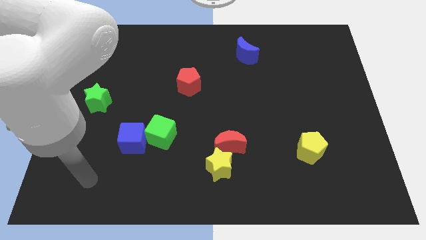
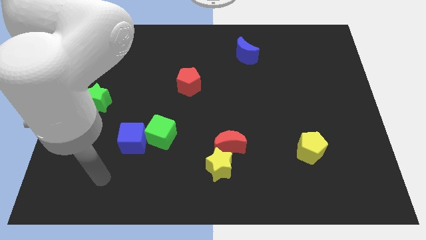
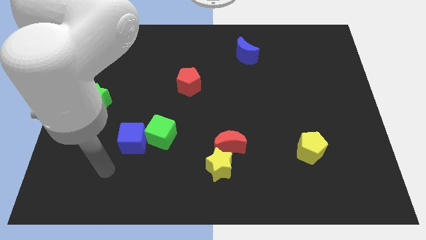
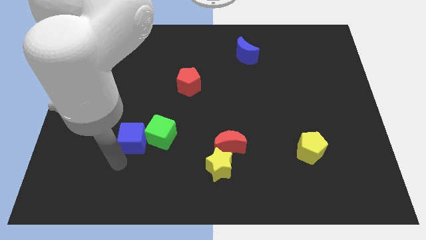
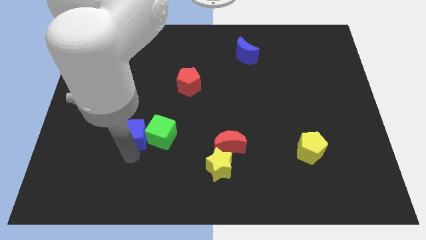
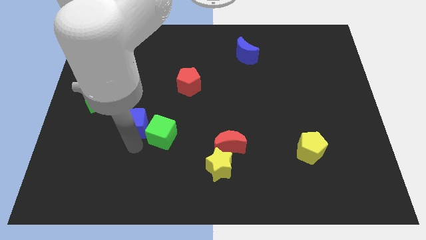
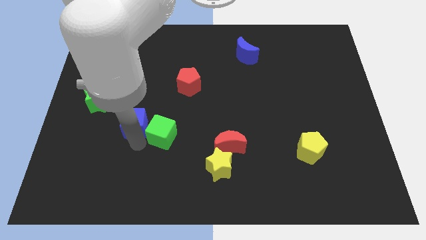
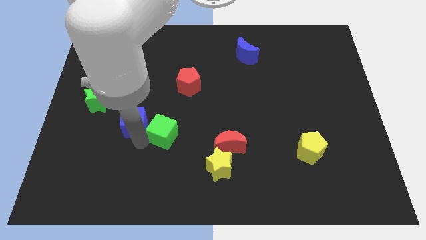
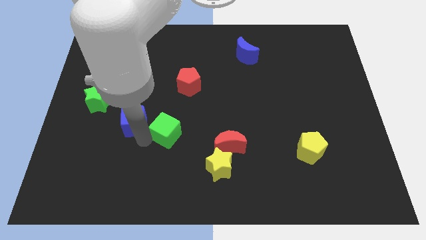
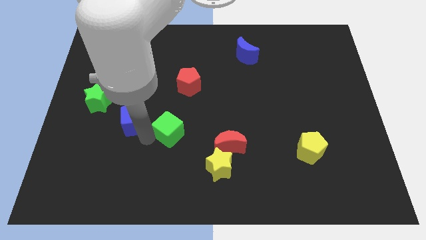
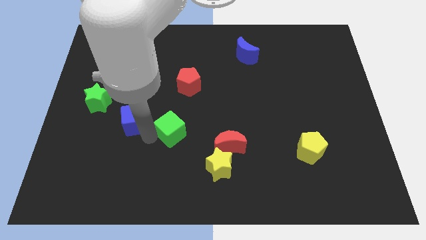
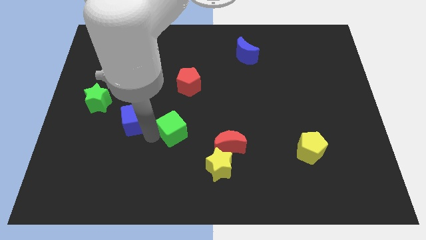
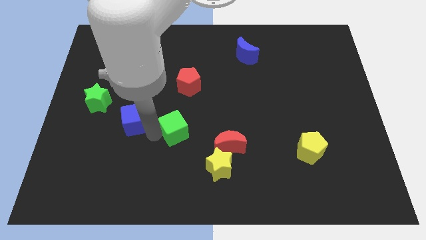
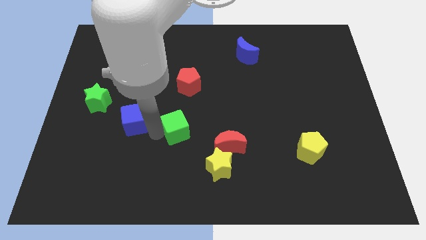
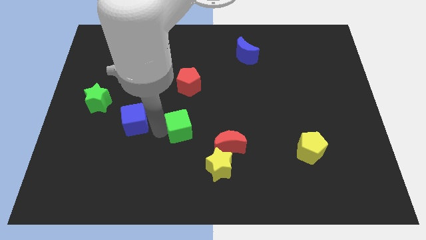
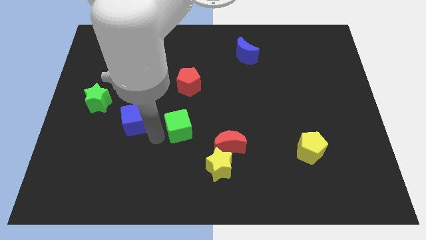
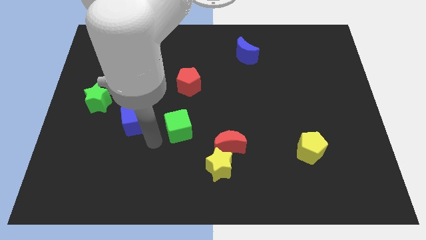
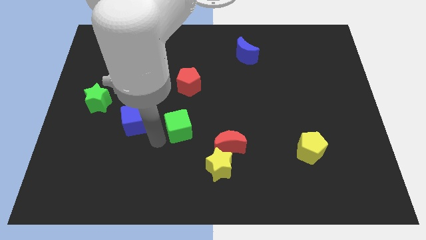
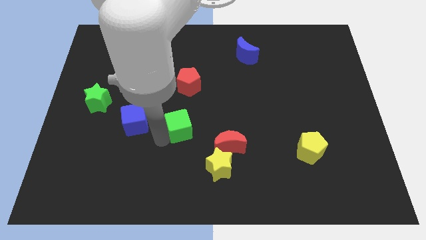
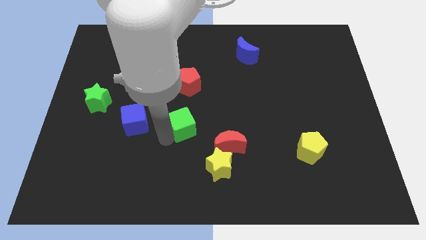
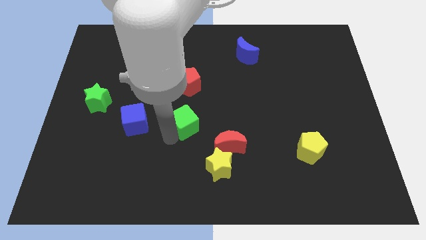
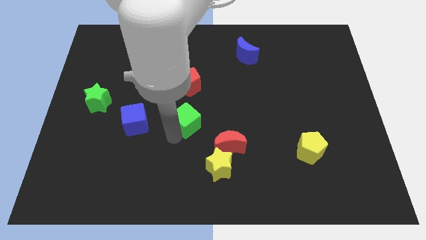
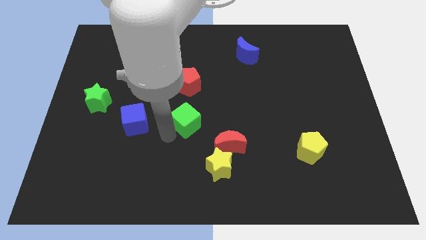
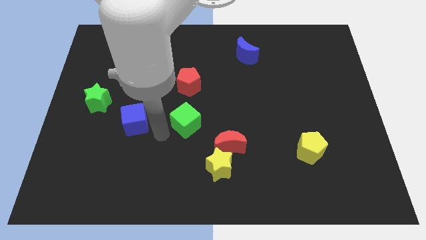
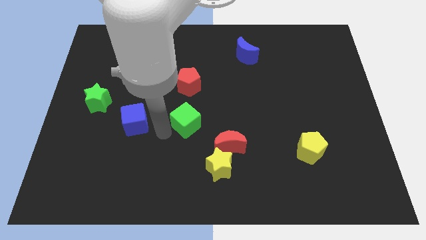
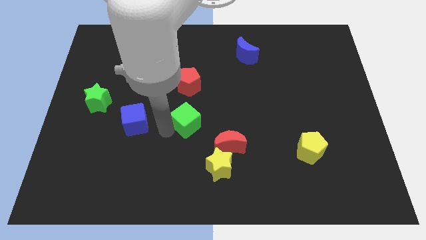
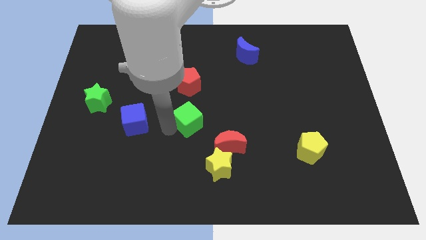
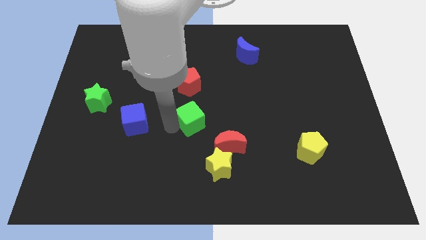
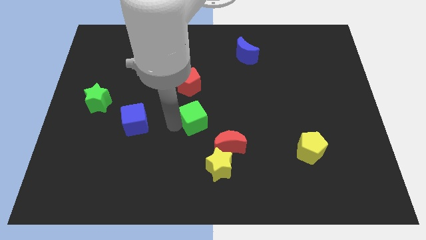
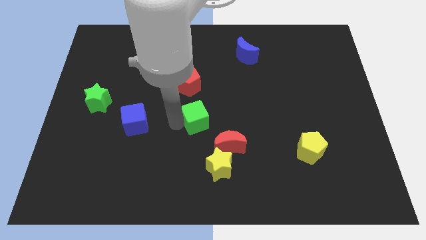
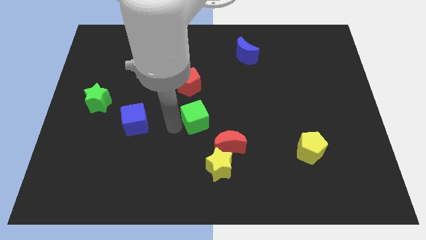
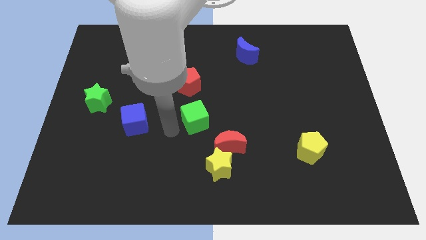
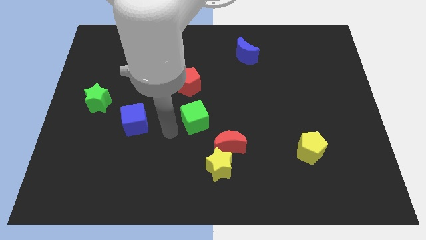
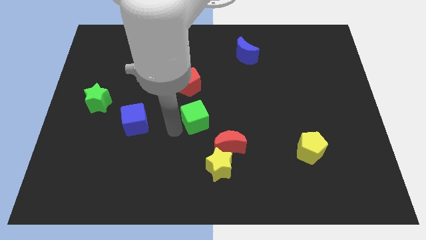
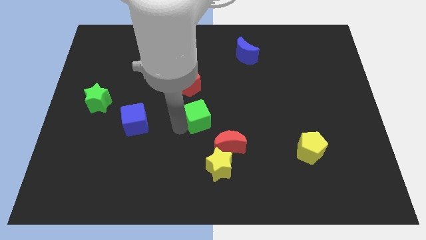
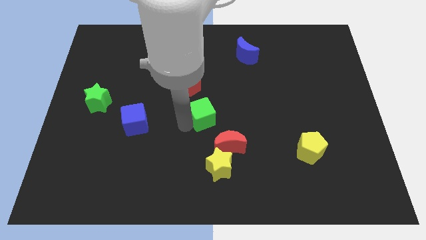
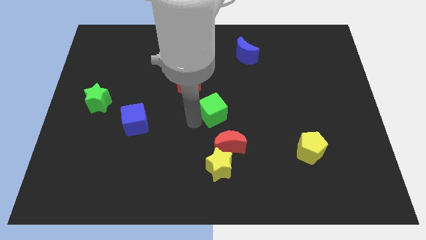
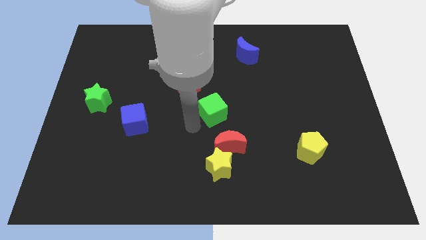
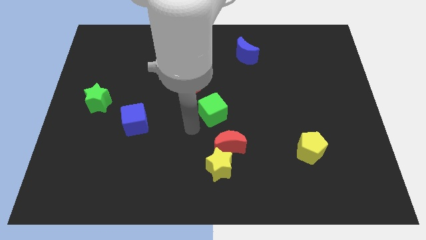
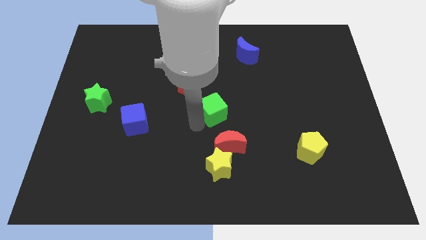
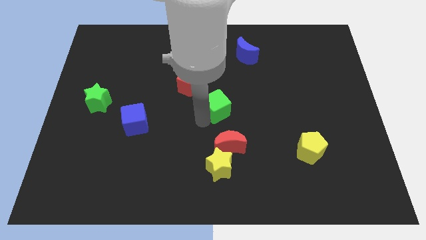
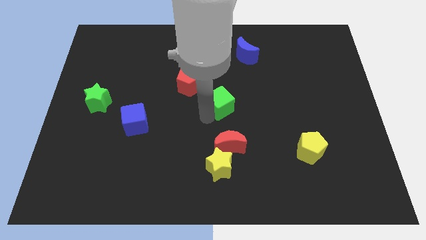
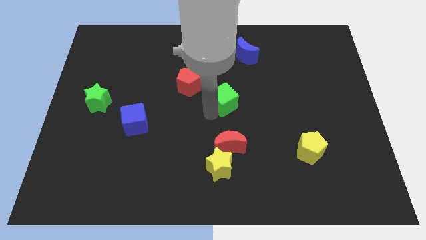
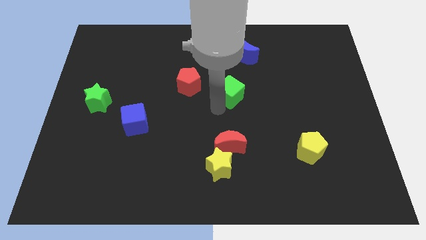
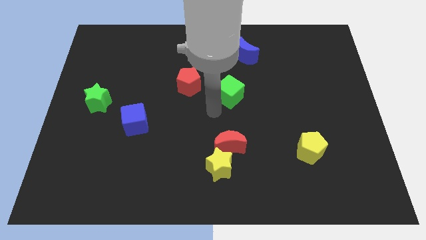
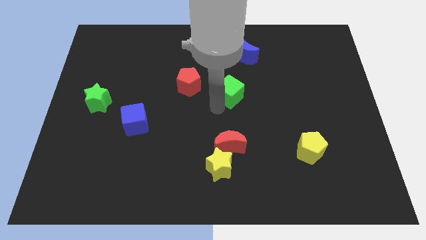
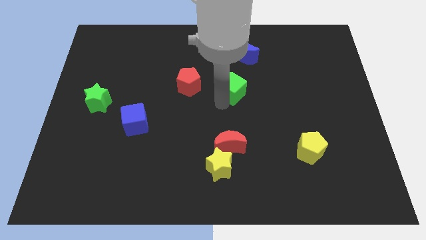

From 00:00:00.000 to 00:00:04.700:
move the green cube up and to the right

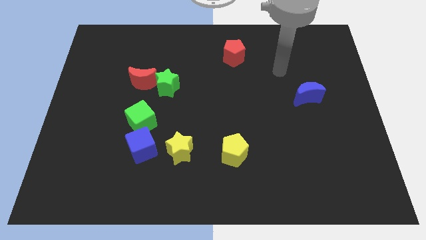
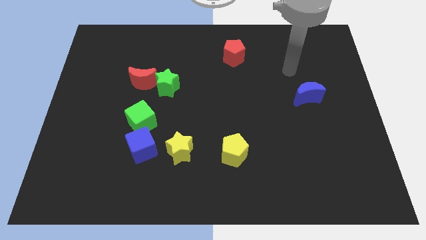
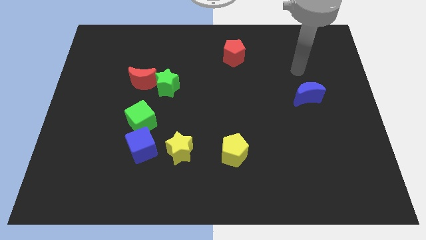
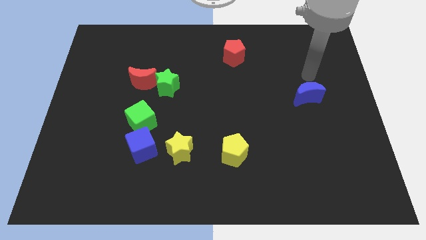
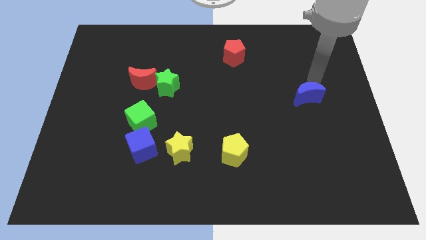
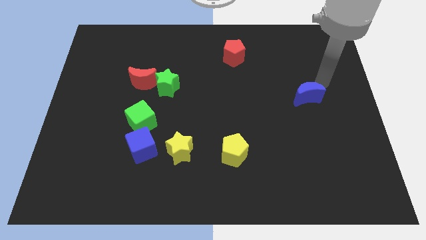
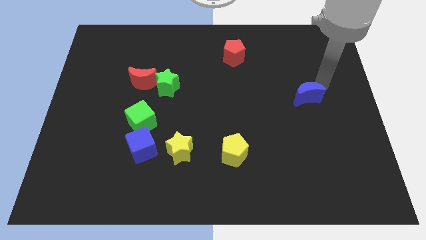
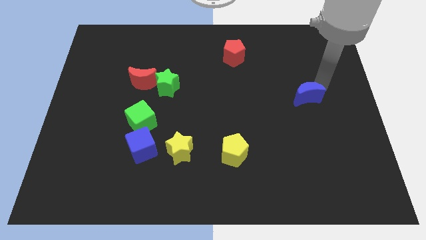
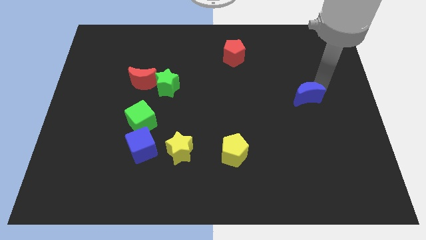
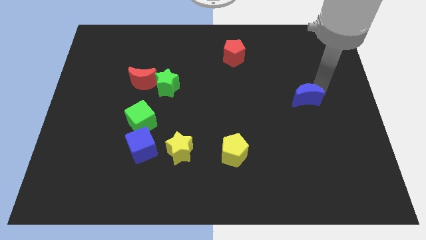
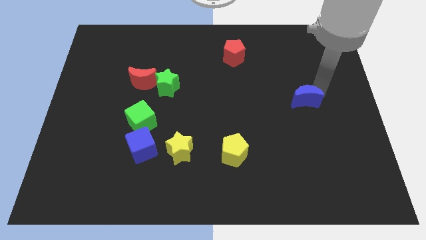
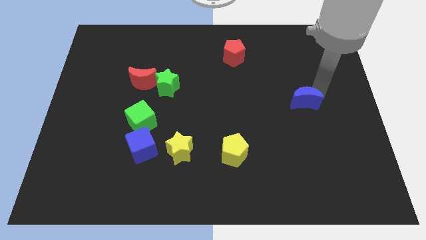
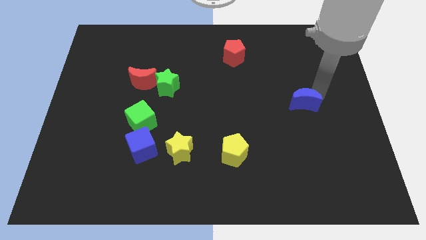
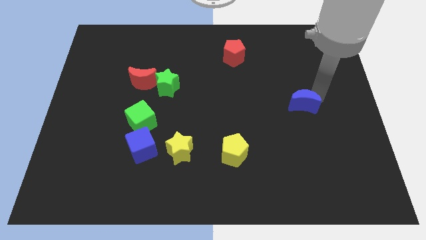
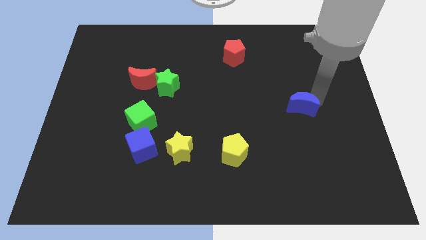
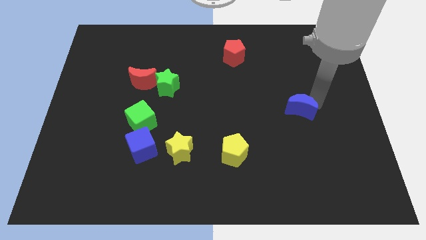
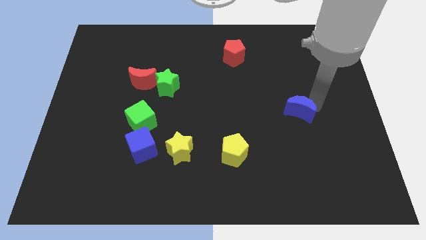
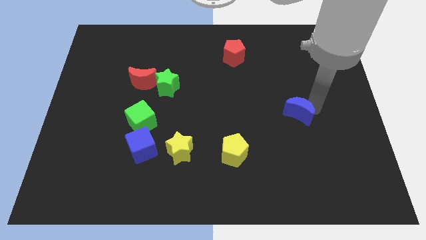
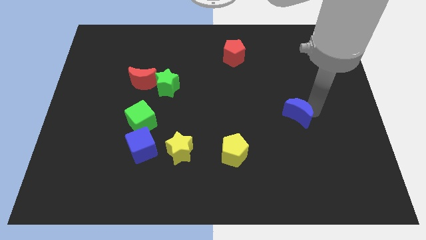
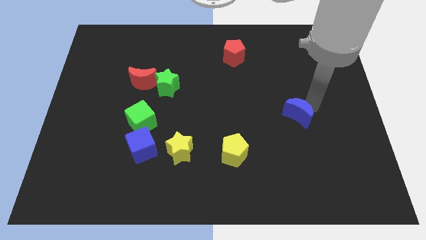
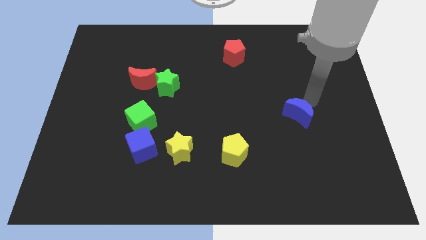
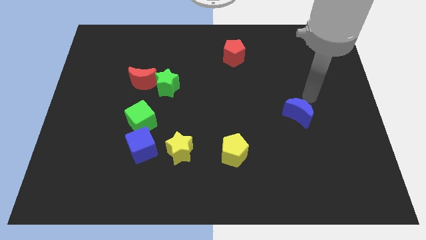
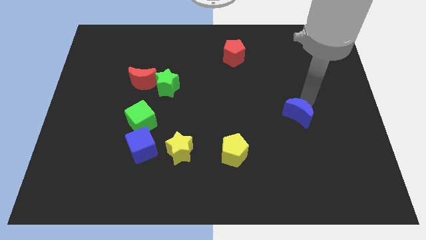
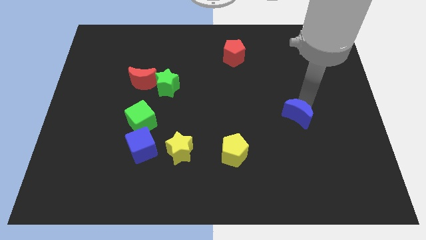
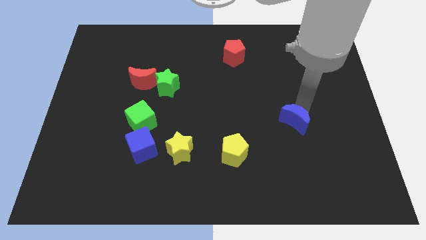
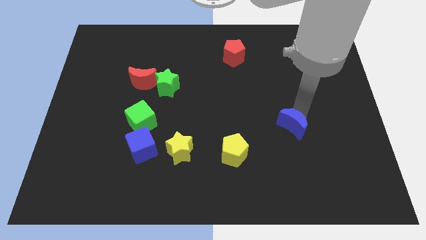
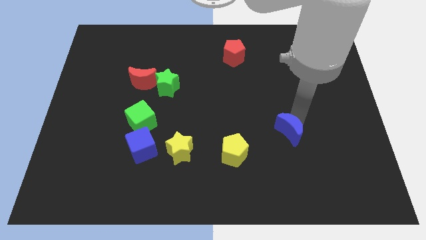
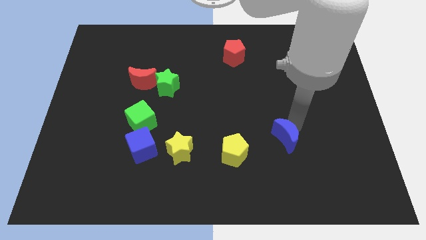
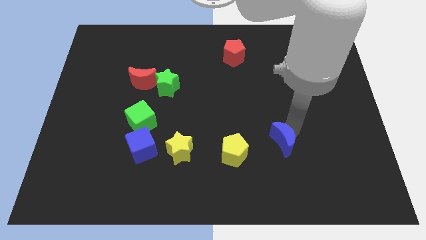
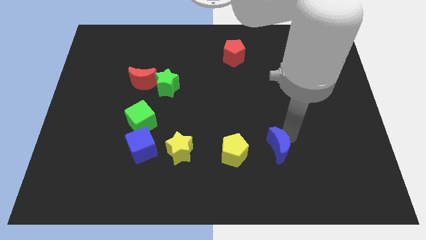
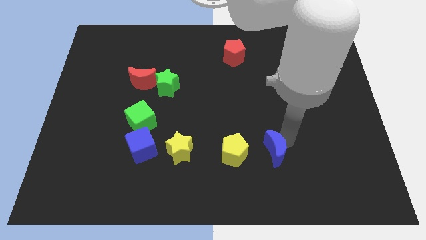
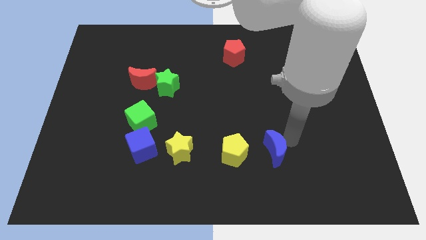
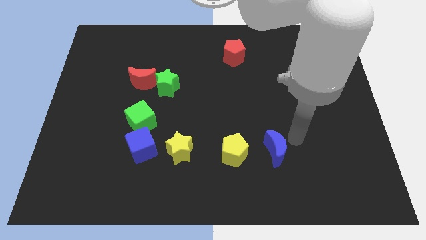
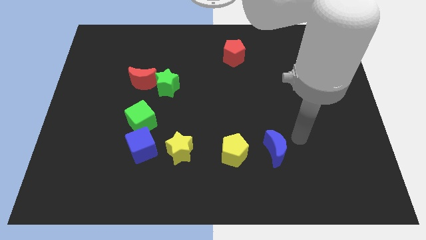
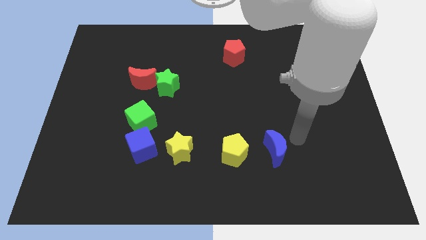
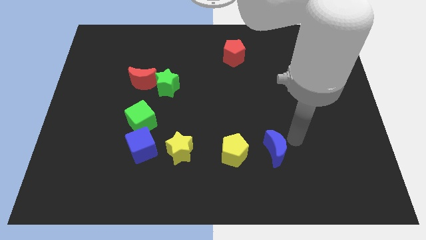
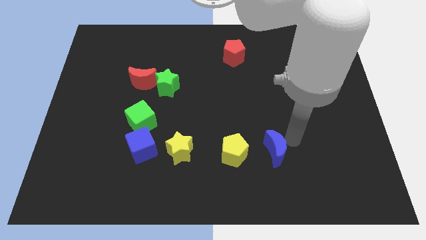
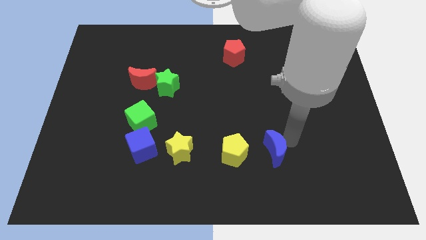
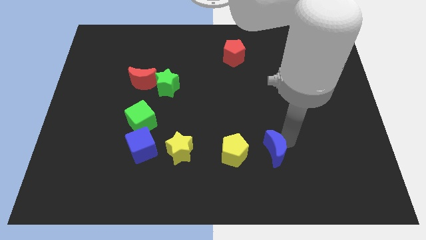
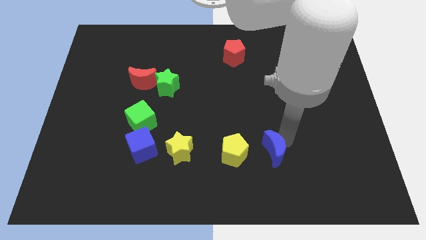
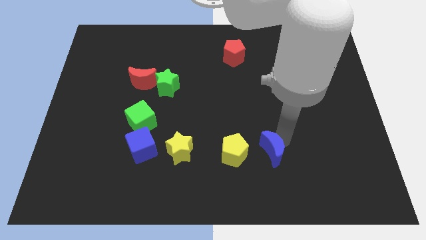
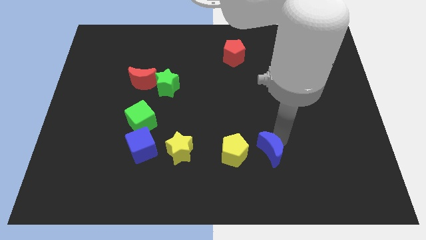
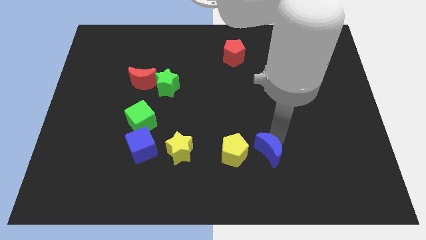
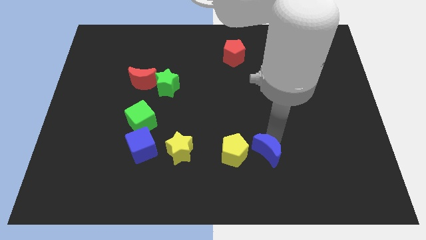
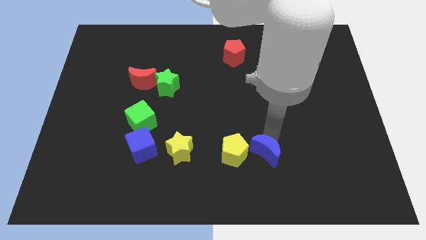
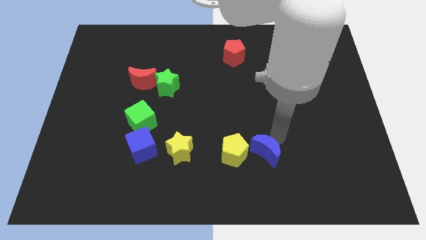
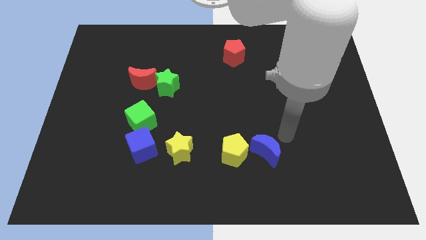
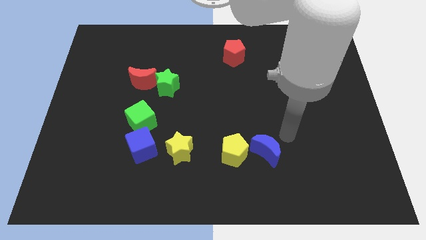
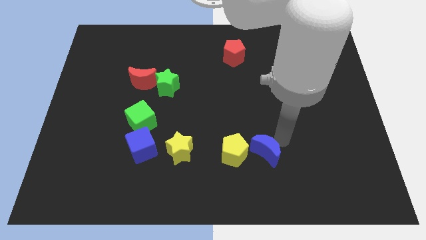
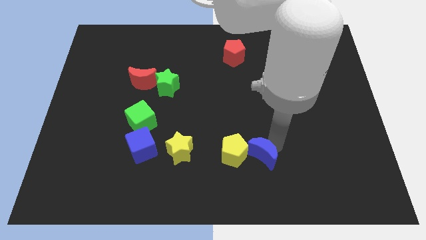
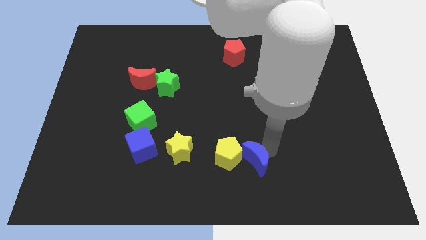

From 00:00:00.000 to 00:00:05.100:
move the blue moon down and to the left
